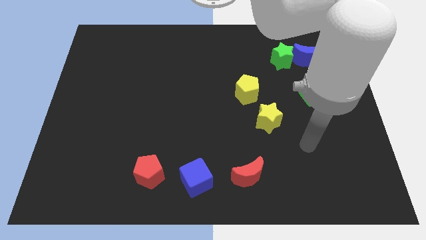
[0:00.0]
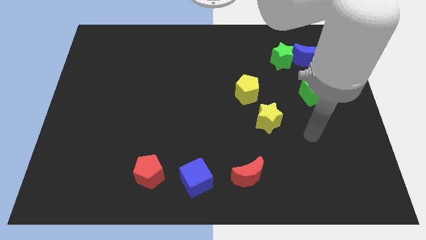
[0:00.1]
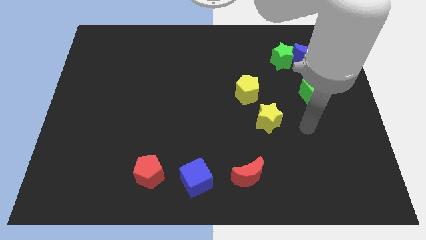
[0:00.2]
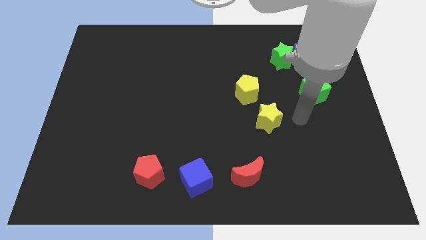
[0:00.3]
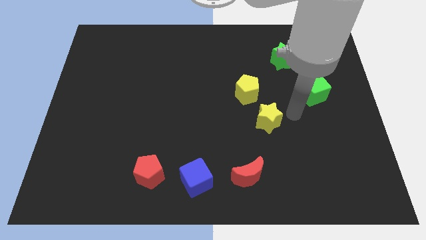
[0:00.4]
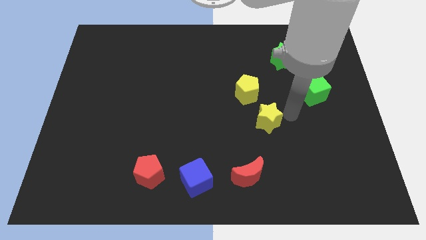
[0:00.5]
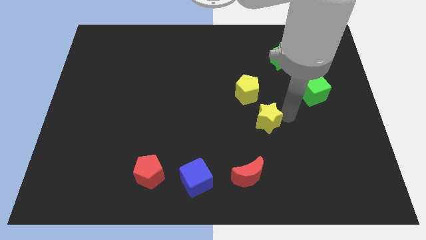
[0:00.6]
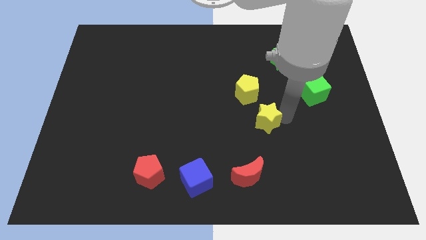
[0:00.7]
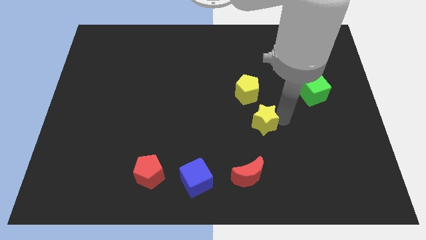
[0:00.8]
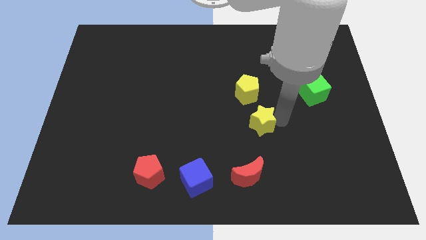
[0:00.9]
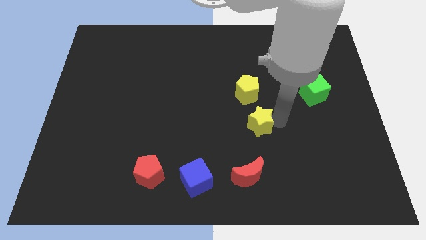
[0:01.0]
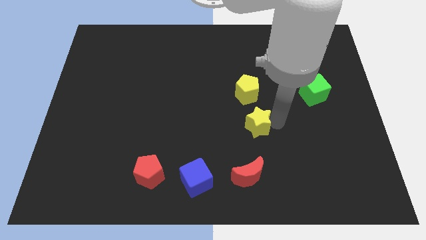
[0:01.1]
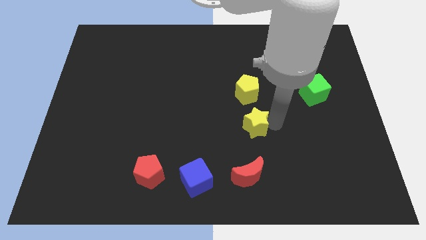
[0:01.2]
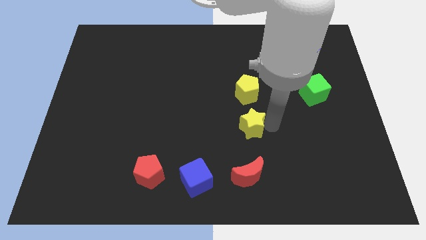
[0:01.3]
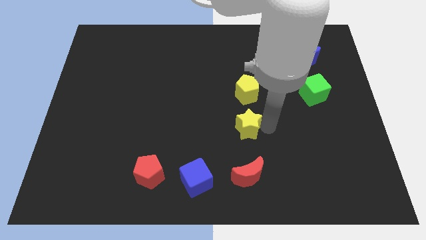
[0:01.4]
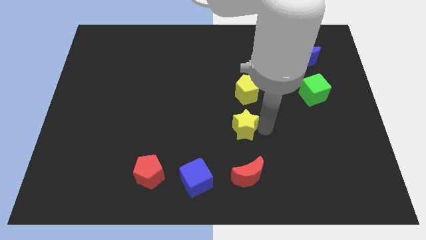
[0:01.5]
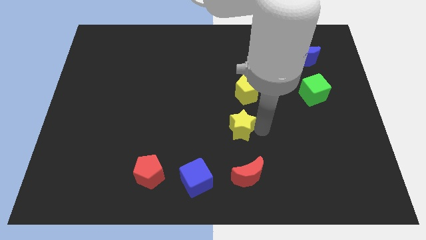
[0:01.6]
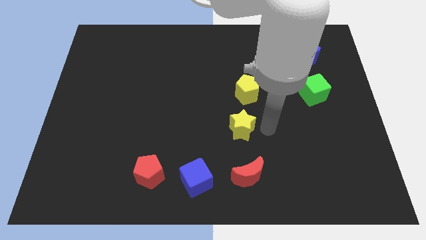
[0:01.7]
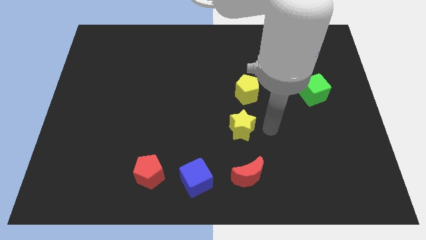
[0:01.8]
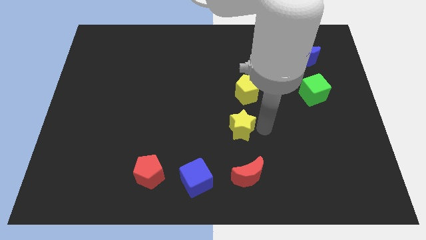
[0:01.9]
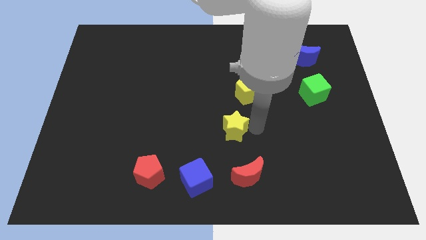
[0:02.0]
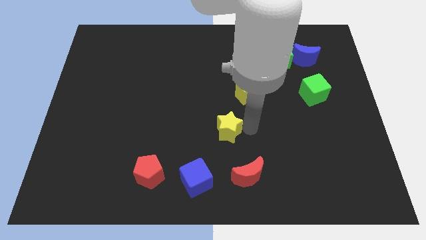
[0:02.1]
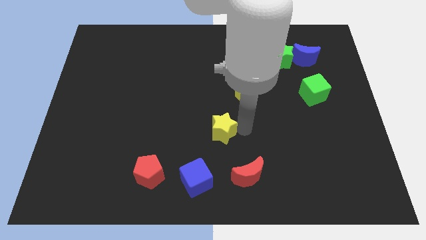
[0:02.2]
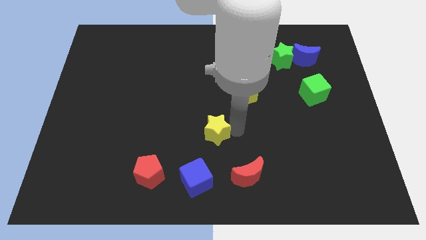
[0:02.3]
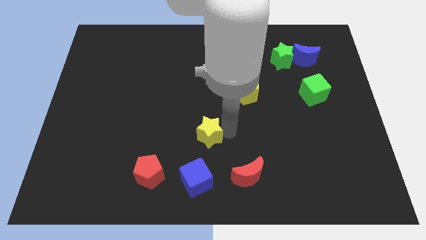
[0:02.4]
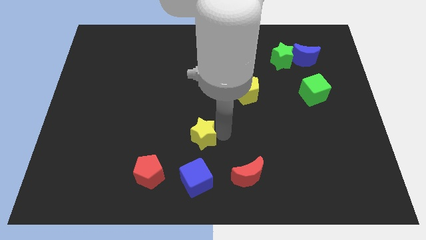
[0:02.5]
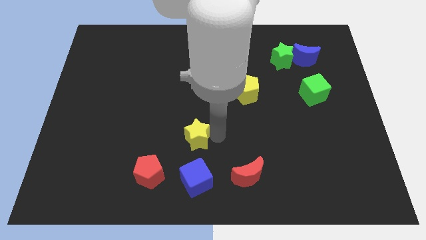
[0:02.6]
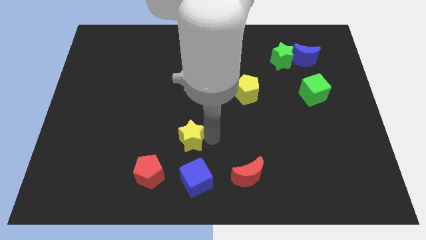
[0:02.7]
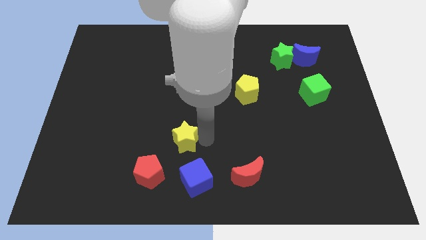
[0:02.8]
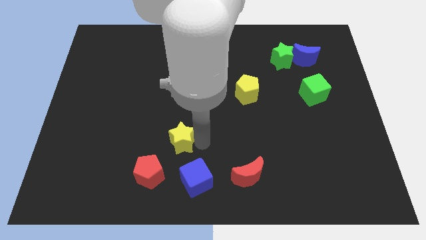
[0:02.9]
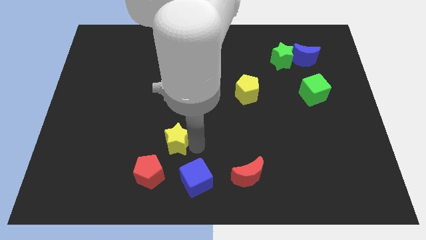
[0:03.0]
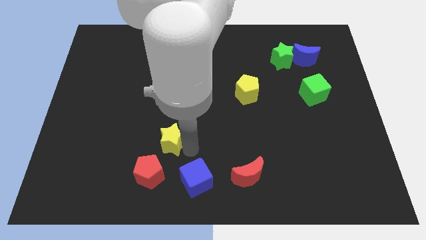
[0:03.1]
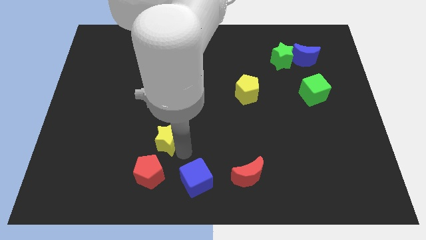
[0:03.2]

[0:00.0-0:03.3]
slide the yellow star to the left

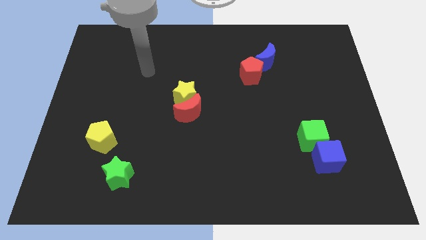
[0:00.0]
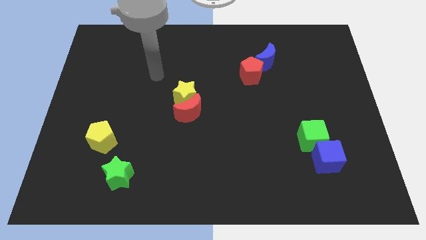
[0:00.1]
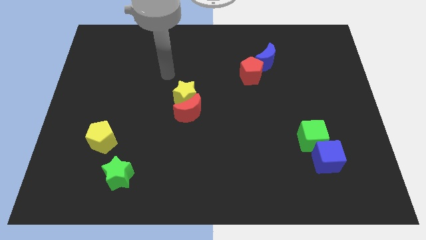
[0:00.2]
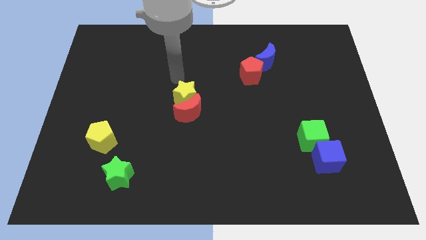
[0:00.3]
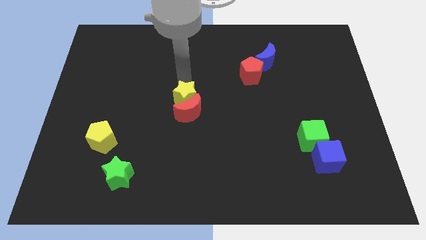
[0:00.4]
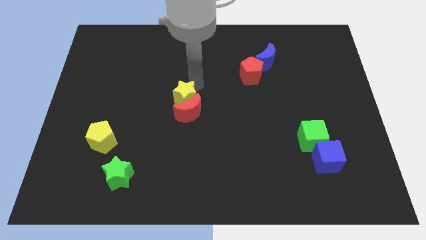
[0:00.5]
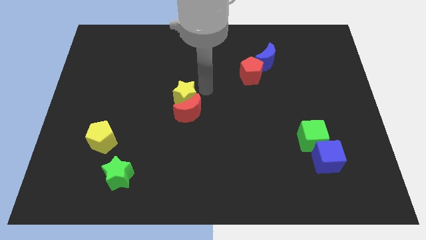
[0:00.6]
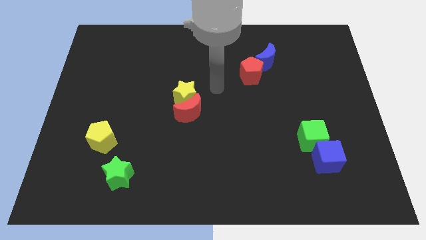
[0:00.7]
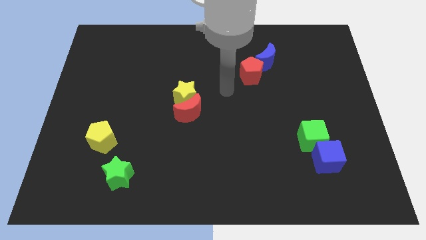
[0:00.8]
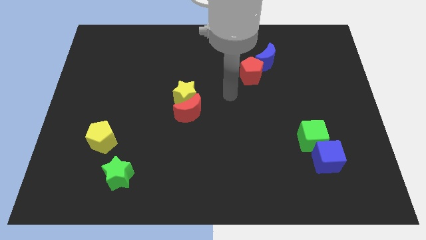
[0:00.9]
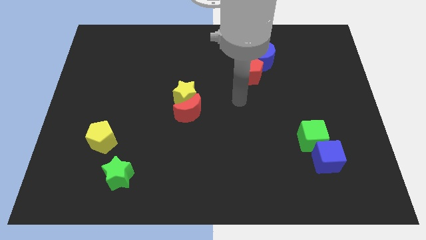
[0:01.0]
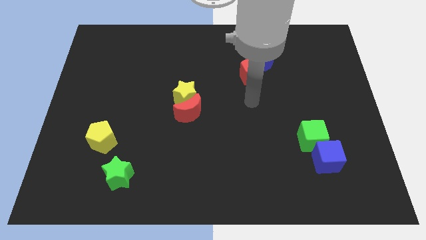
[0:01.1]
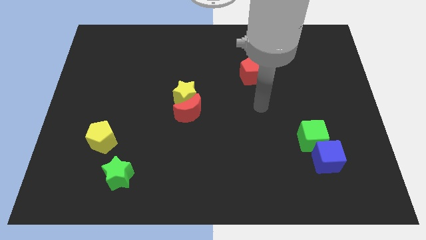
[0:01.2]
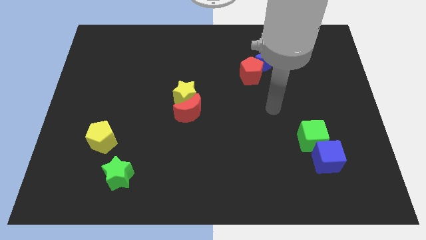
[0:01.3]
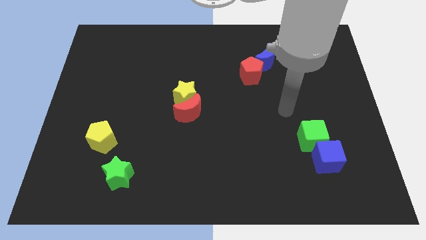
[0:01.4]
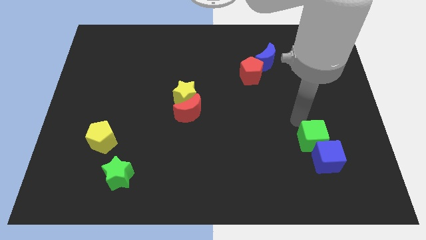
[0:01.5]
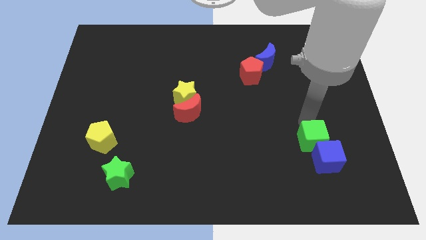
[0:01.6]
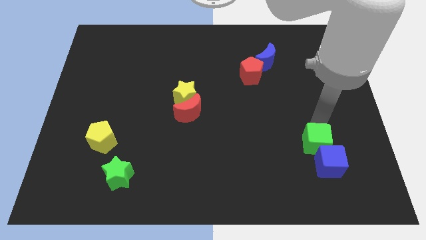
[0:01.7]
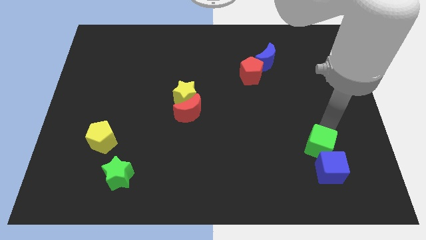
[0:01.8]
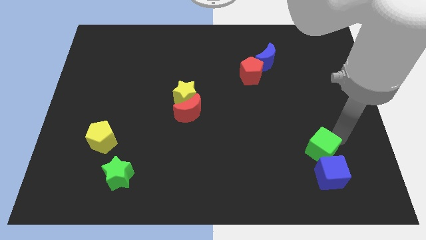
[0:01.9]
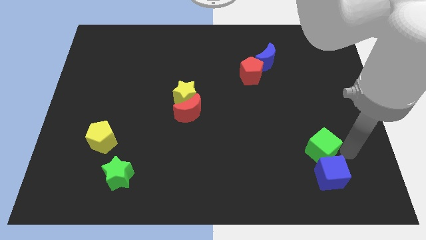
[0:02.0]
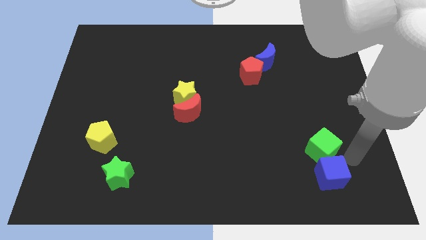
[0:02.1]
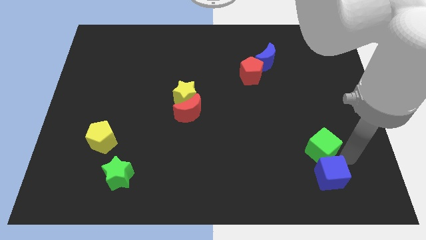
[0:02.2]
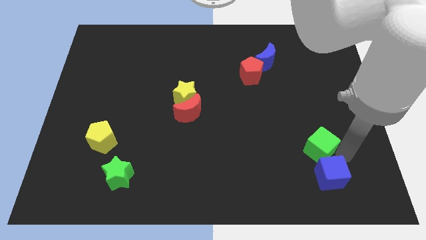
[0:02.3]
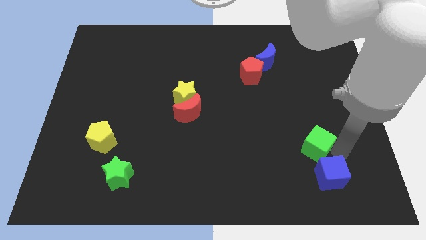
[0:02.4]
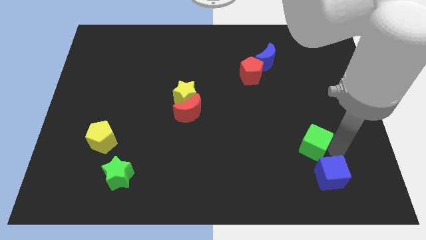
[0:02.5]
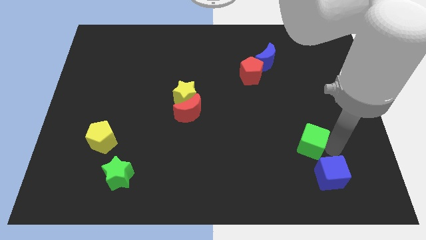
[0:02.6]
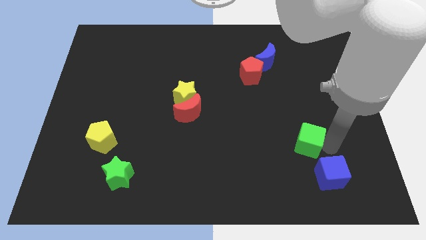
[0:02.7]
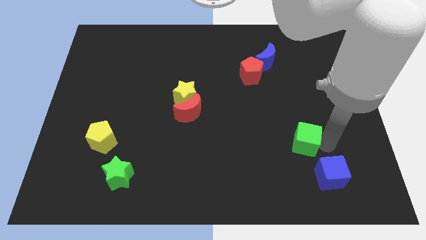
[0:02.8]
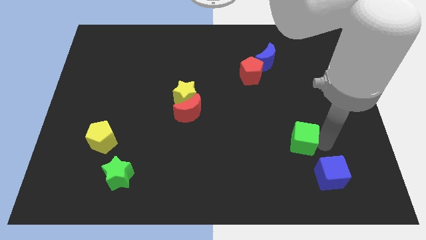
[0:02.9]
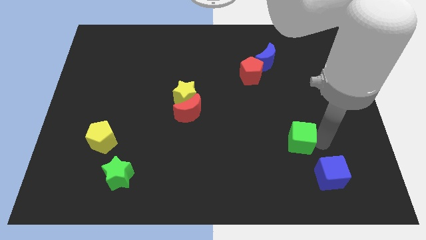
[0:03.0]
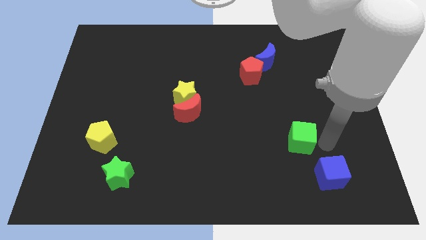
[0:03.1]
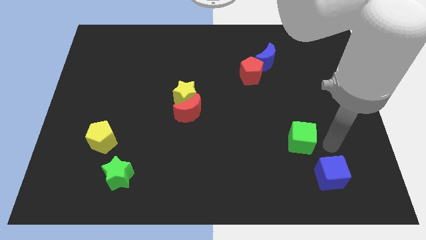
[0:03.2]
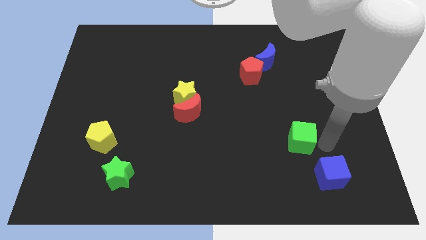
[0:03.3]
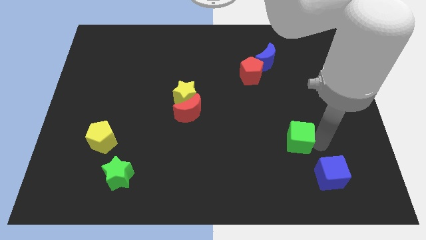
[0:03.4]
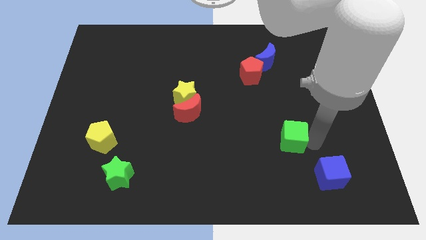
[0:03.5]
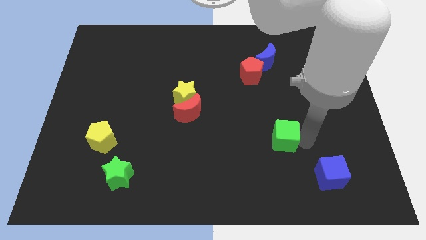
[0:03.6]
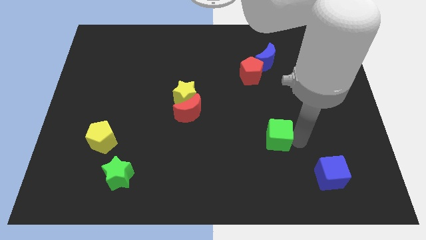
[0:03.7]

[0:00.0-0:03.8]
slide the green cube to the left somewhat

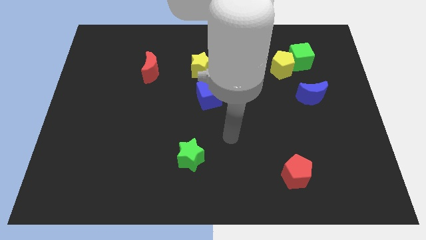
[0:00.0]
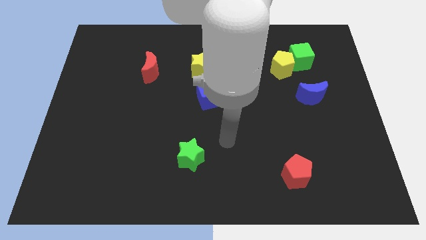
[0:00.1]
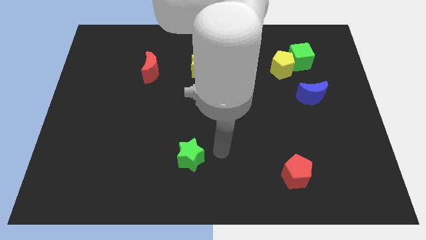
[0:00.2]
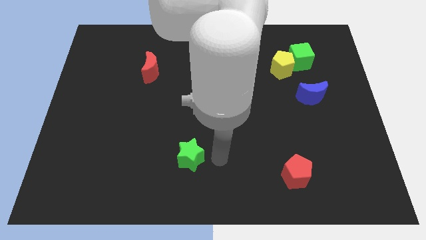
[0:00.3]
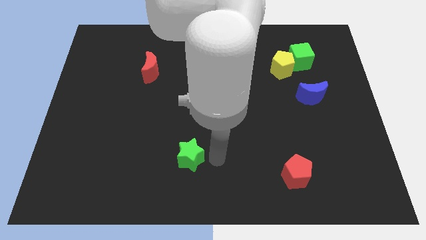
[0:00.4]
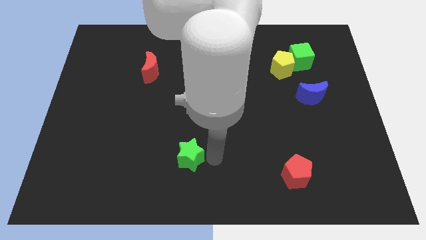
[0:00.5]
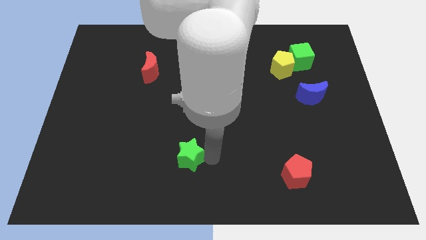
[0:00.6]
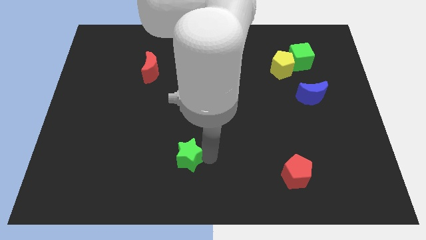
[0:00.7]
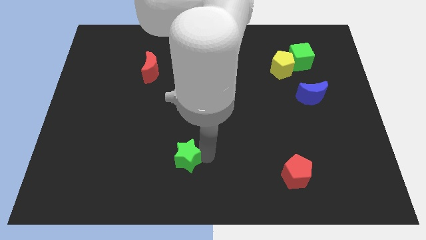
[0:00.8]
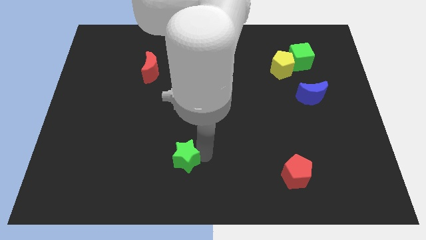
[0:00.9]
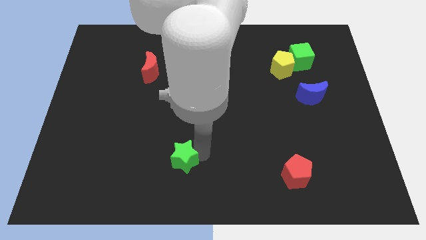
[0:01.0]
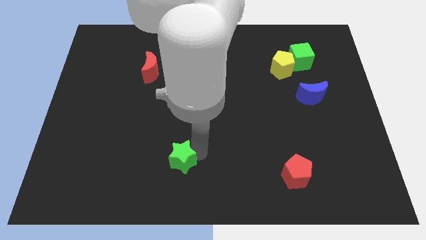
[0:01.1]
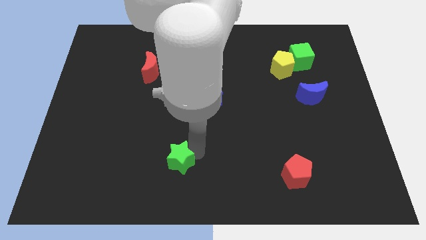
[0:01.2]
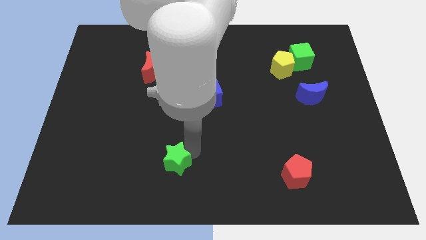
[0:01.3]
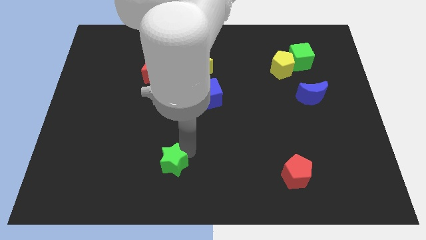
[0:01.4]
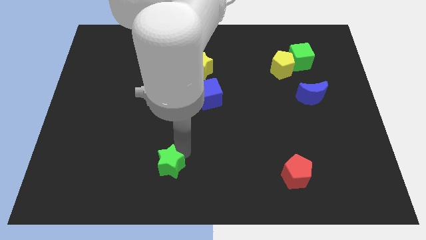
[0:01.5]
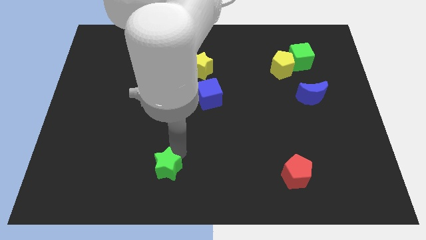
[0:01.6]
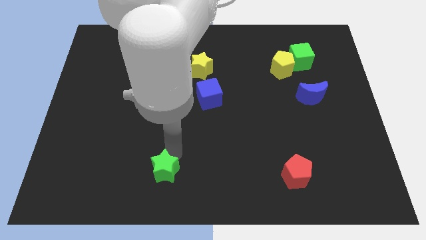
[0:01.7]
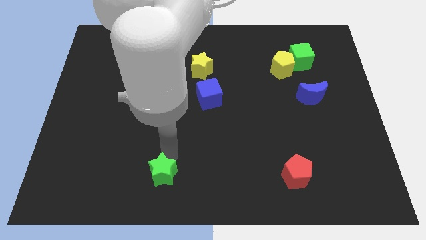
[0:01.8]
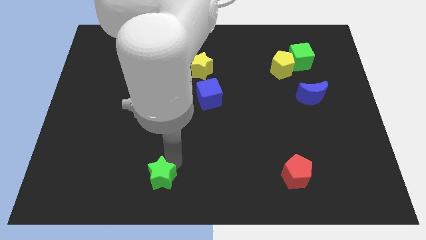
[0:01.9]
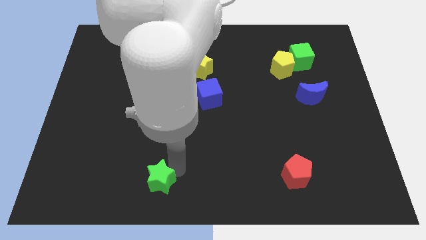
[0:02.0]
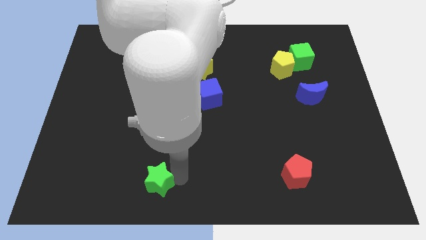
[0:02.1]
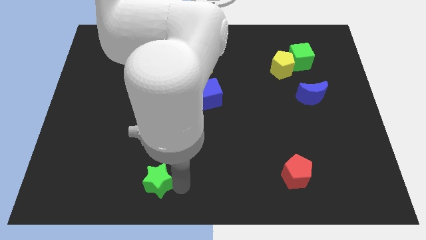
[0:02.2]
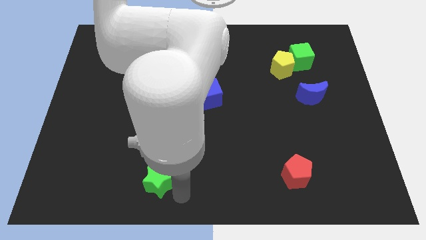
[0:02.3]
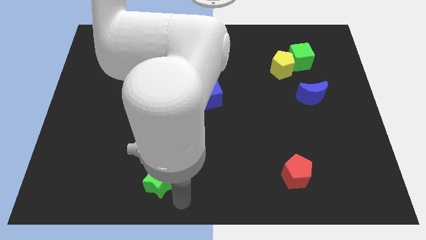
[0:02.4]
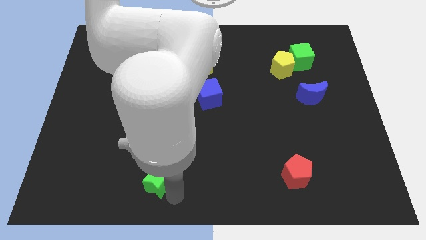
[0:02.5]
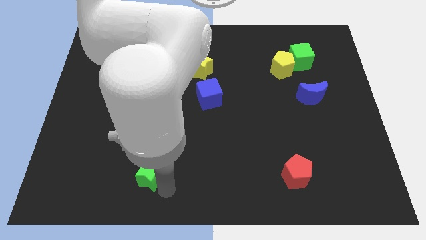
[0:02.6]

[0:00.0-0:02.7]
move the green star a little bit left
